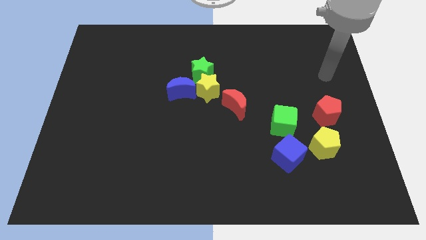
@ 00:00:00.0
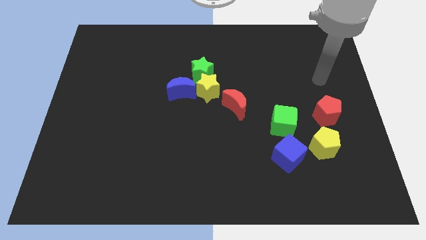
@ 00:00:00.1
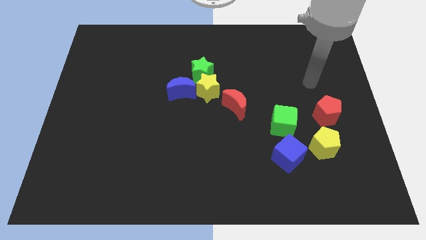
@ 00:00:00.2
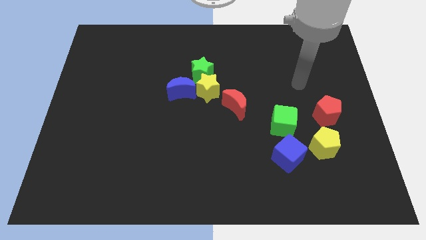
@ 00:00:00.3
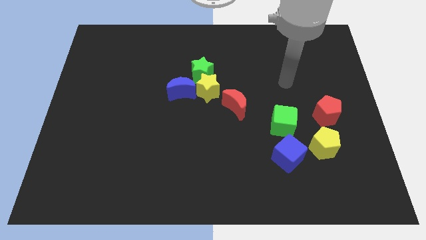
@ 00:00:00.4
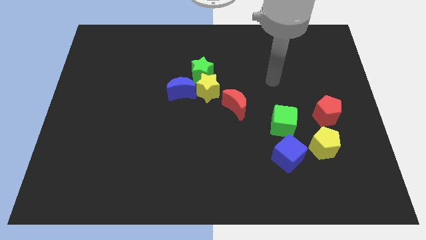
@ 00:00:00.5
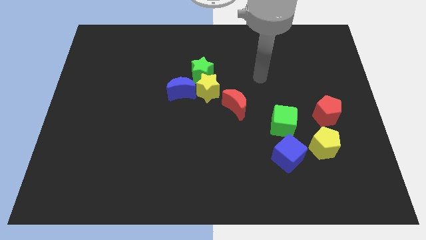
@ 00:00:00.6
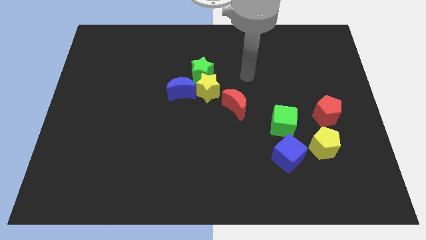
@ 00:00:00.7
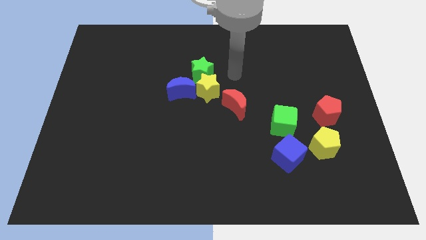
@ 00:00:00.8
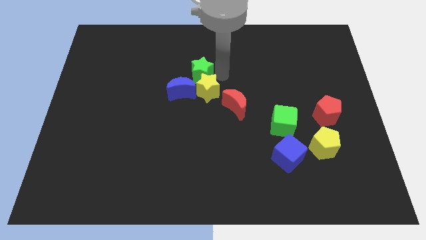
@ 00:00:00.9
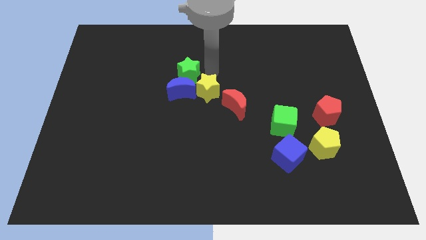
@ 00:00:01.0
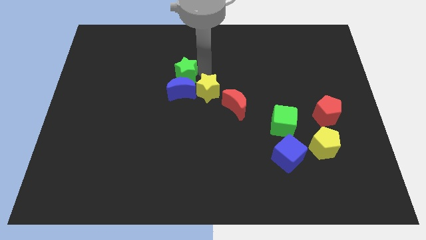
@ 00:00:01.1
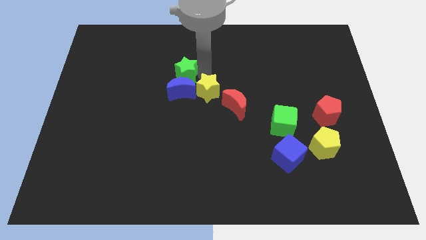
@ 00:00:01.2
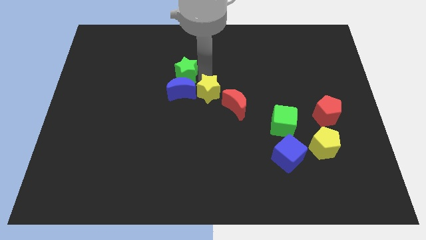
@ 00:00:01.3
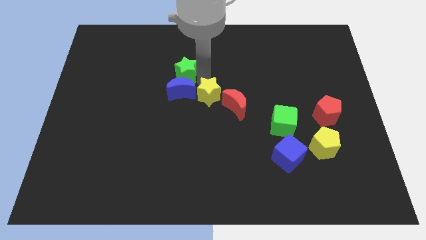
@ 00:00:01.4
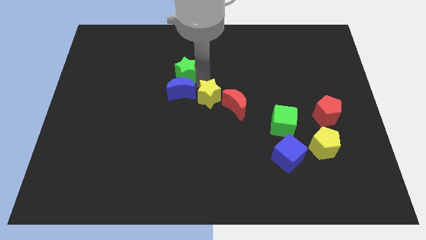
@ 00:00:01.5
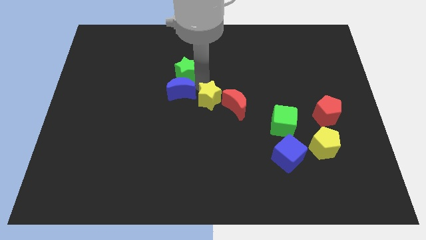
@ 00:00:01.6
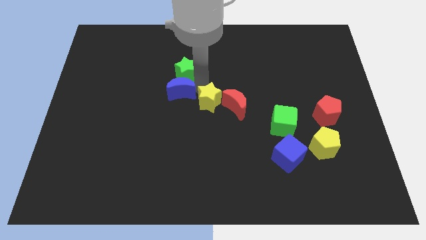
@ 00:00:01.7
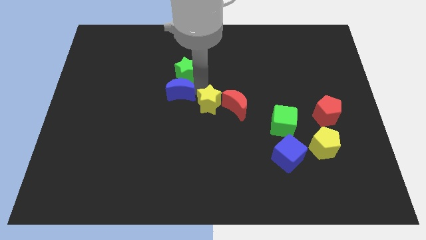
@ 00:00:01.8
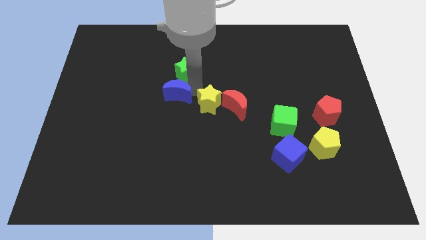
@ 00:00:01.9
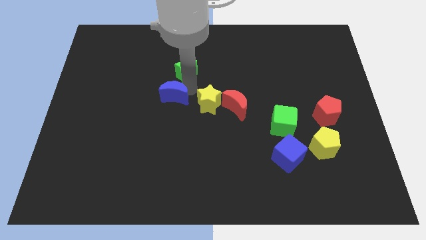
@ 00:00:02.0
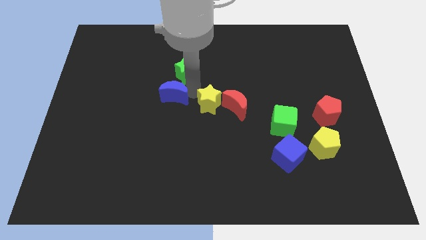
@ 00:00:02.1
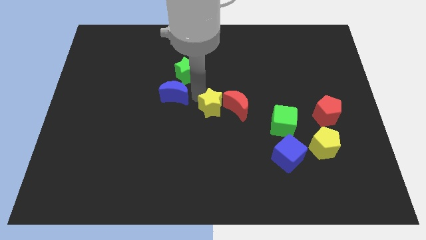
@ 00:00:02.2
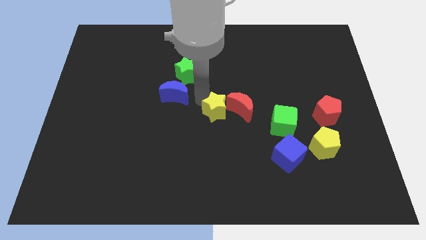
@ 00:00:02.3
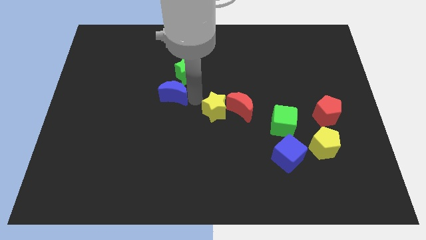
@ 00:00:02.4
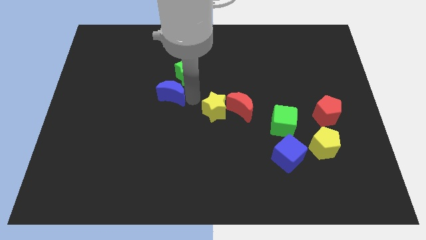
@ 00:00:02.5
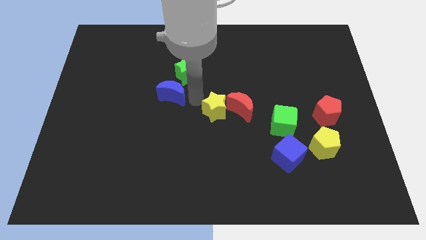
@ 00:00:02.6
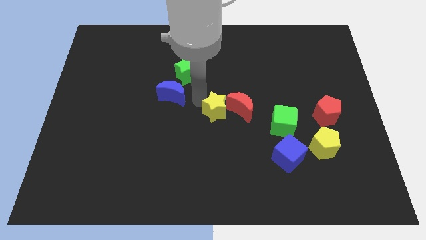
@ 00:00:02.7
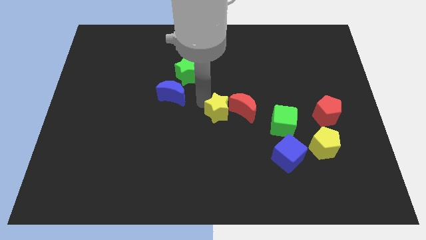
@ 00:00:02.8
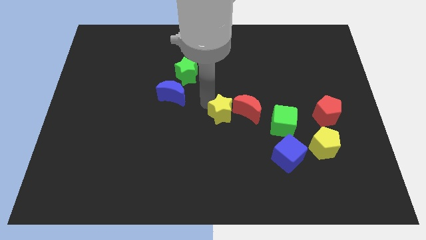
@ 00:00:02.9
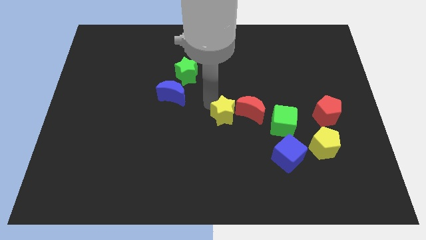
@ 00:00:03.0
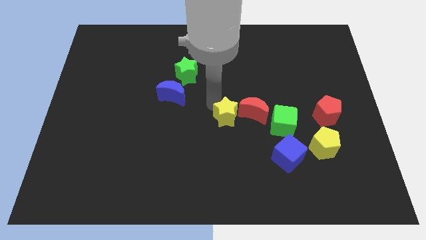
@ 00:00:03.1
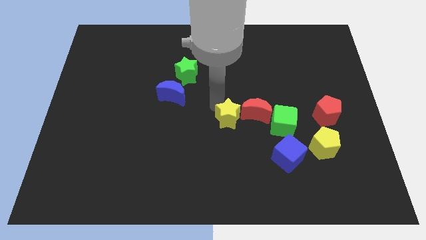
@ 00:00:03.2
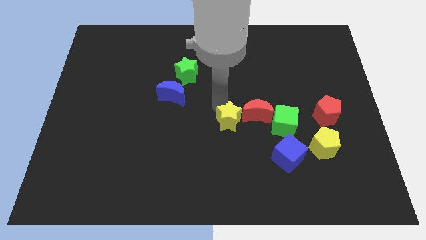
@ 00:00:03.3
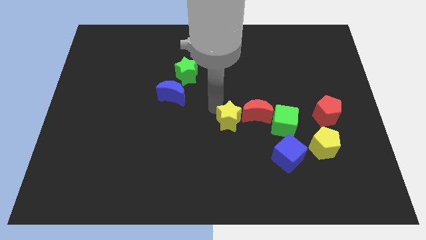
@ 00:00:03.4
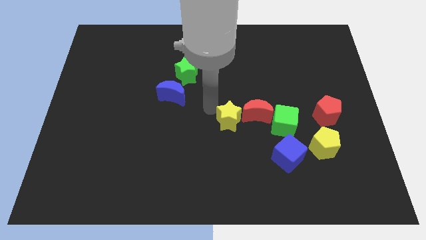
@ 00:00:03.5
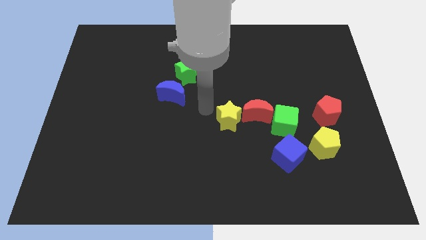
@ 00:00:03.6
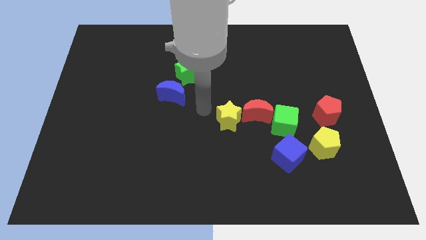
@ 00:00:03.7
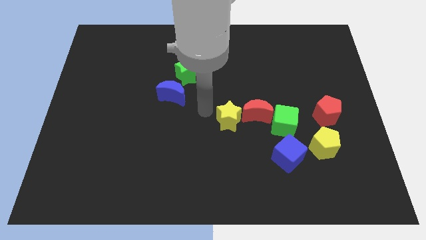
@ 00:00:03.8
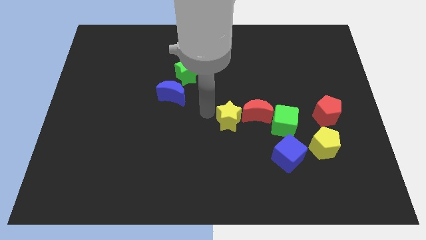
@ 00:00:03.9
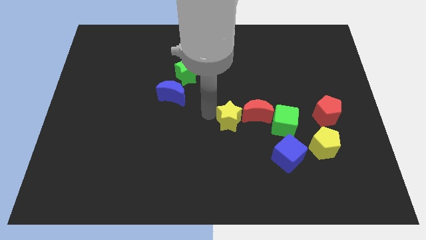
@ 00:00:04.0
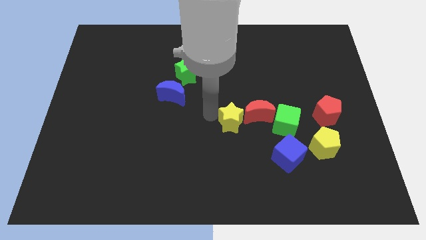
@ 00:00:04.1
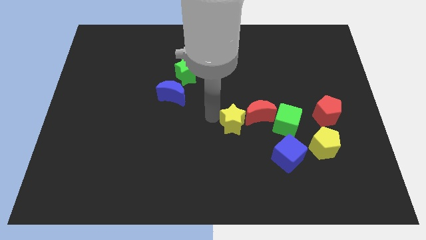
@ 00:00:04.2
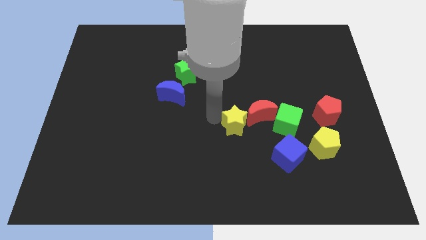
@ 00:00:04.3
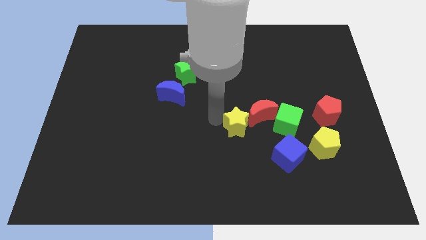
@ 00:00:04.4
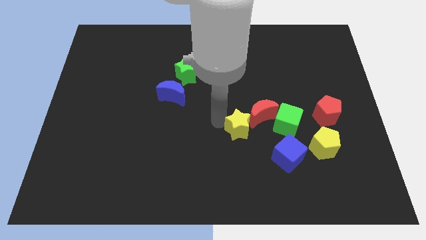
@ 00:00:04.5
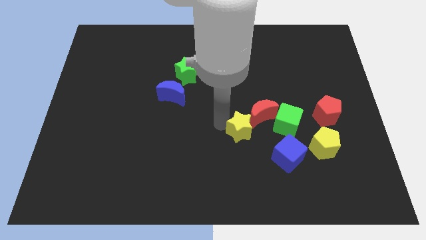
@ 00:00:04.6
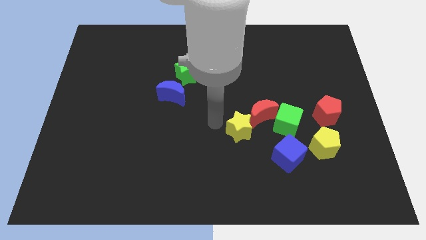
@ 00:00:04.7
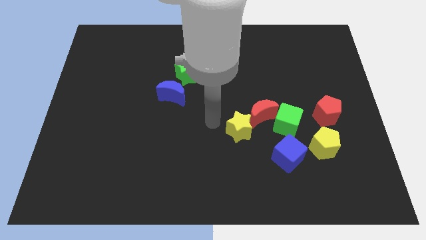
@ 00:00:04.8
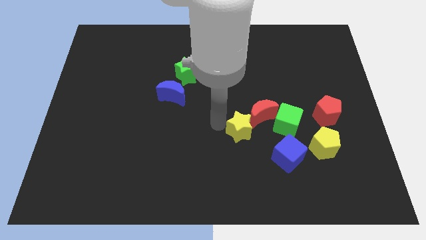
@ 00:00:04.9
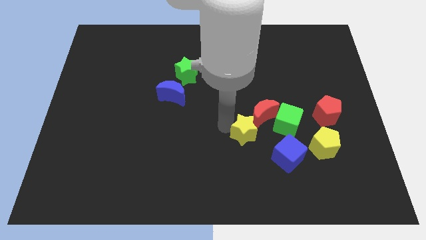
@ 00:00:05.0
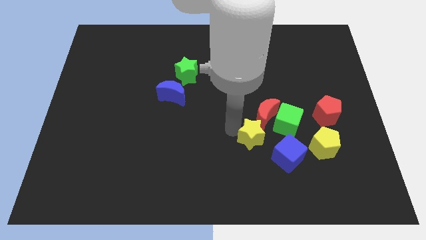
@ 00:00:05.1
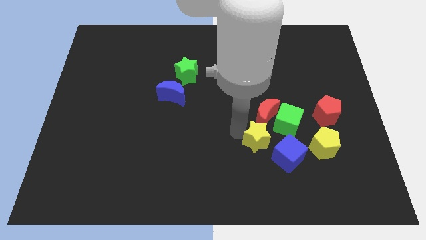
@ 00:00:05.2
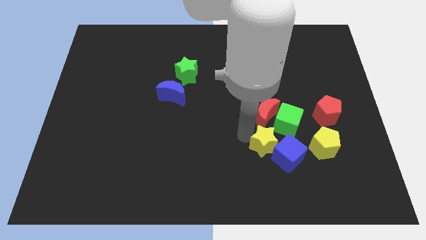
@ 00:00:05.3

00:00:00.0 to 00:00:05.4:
slide the yellow star to the blue cube

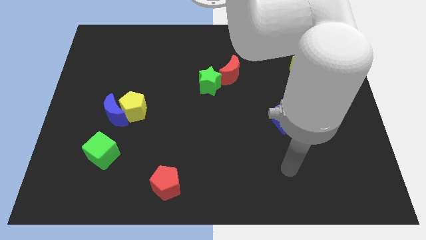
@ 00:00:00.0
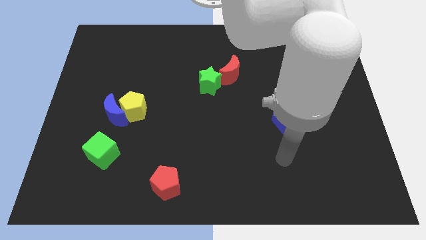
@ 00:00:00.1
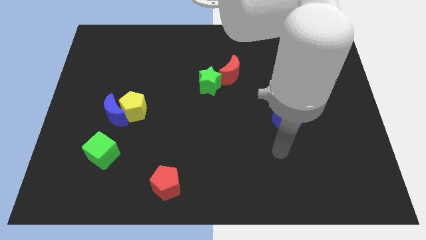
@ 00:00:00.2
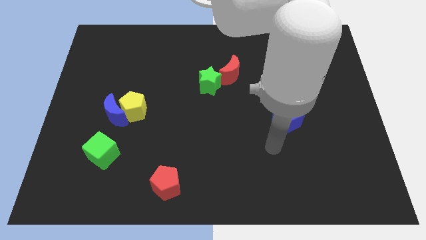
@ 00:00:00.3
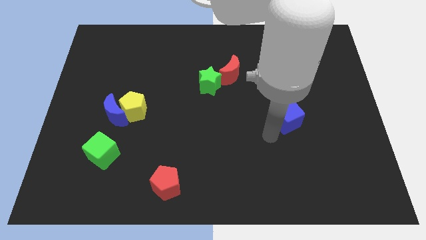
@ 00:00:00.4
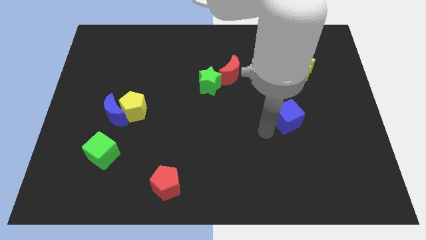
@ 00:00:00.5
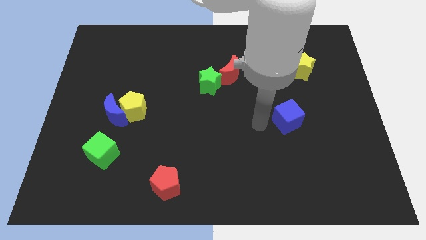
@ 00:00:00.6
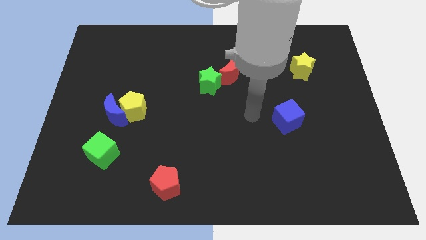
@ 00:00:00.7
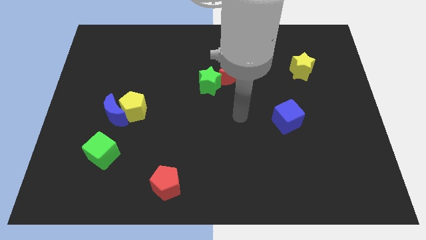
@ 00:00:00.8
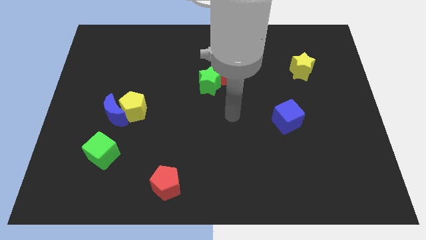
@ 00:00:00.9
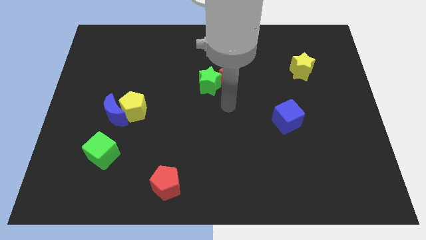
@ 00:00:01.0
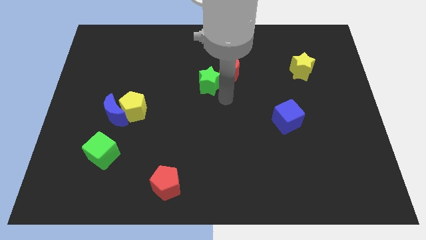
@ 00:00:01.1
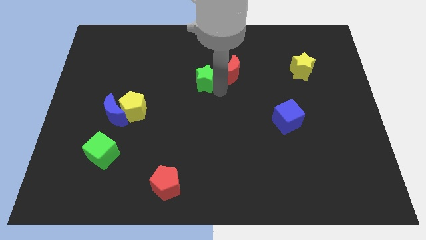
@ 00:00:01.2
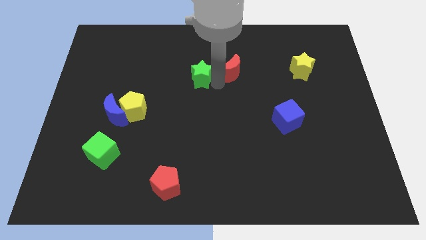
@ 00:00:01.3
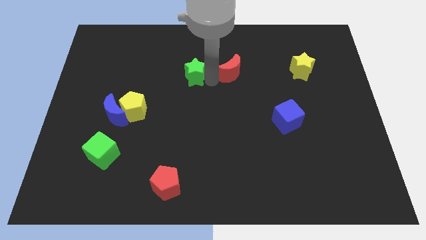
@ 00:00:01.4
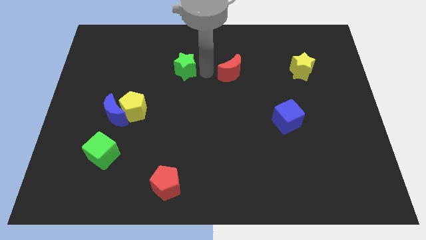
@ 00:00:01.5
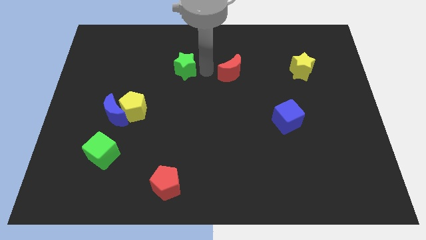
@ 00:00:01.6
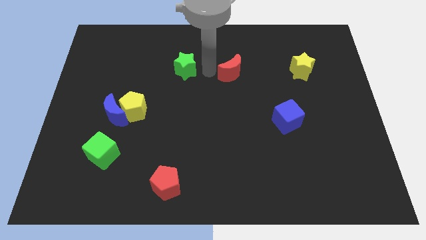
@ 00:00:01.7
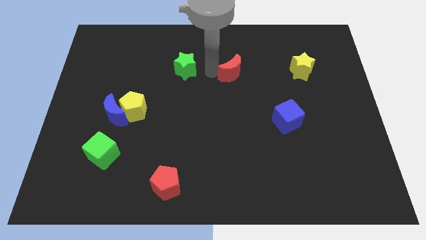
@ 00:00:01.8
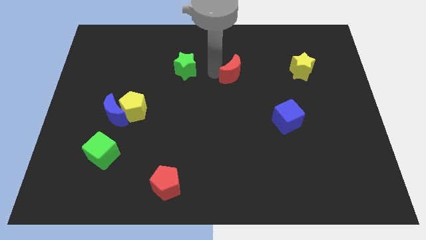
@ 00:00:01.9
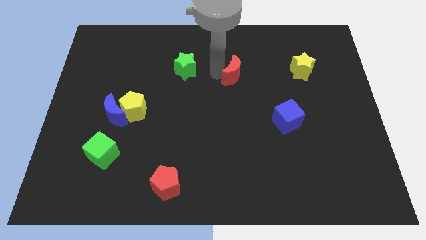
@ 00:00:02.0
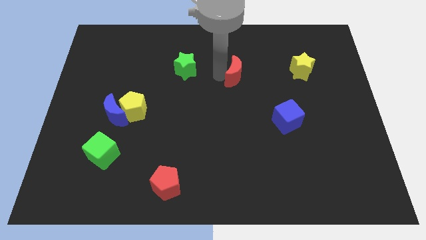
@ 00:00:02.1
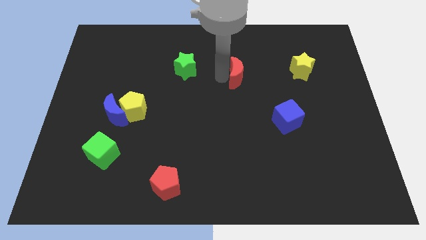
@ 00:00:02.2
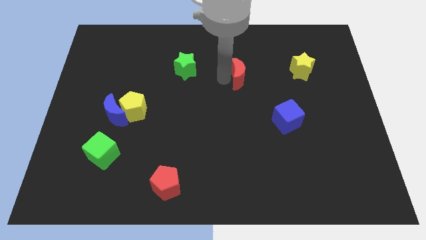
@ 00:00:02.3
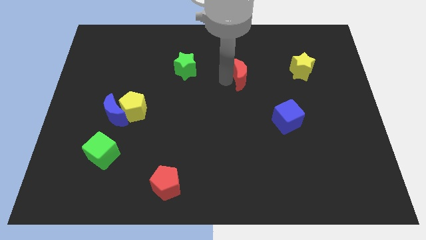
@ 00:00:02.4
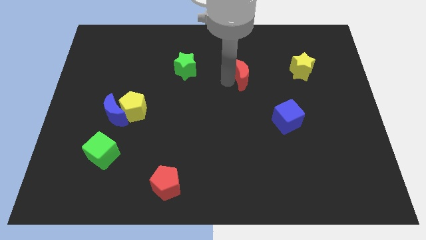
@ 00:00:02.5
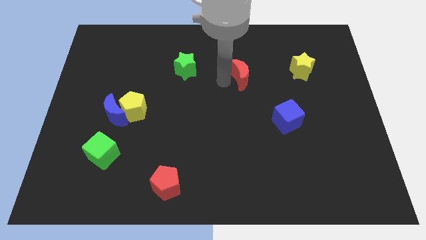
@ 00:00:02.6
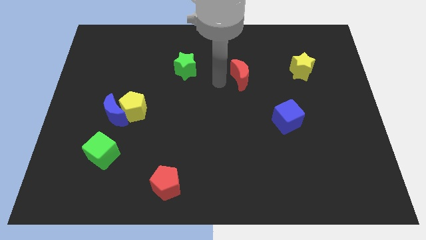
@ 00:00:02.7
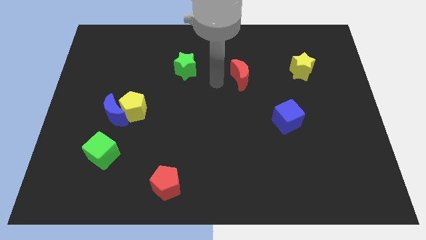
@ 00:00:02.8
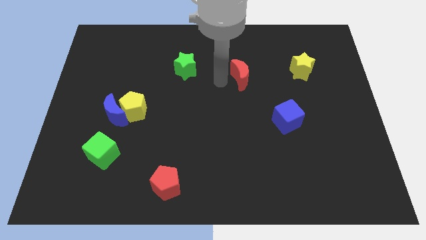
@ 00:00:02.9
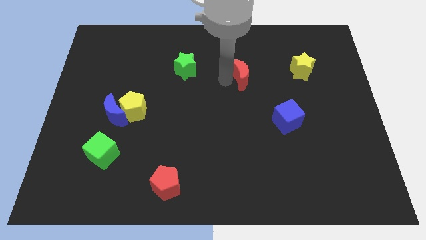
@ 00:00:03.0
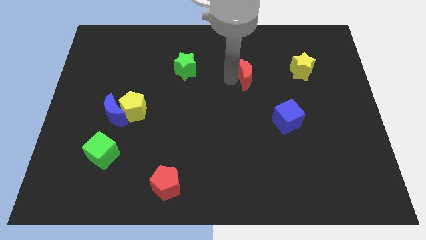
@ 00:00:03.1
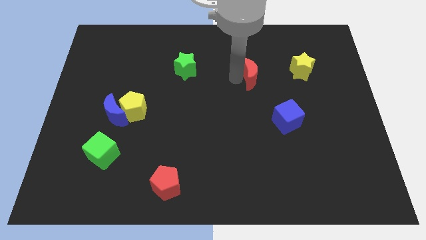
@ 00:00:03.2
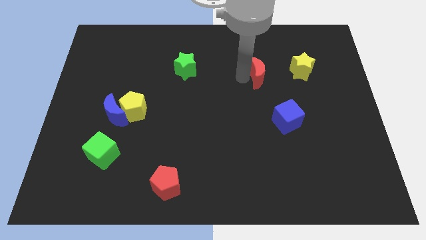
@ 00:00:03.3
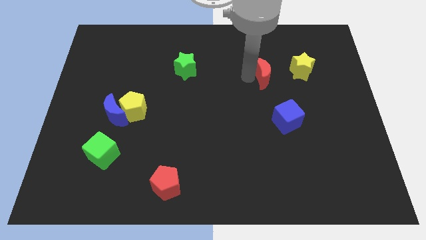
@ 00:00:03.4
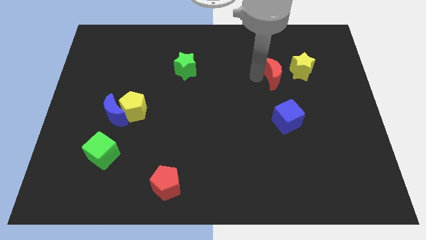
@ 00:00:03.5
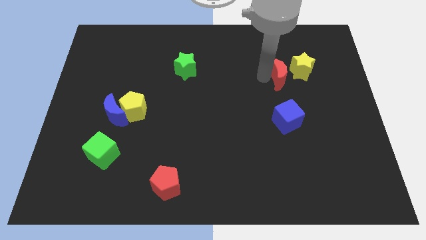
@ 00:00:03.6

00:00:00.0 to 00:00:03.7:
push the red moon close to the yellow star
